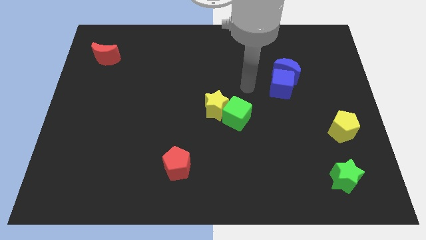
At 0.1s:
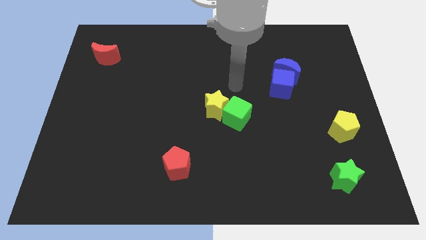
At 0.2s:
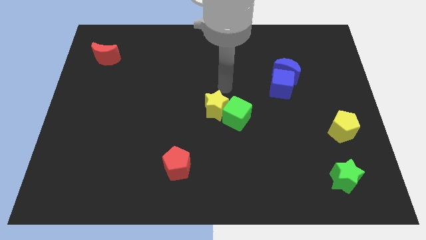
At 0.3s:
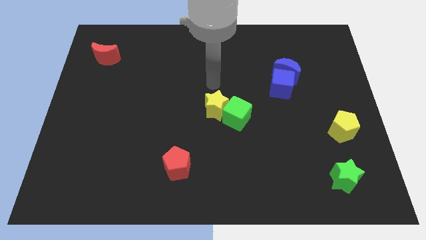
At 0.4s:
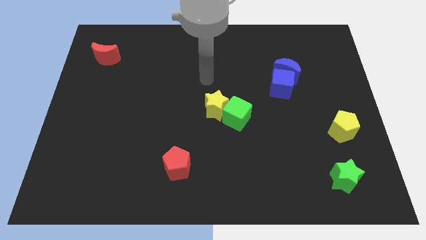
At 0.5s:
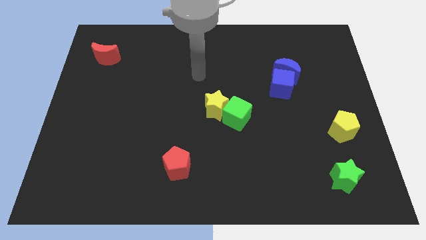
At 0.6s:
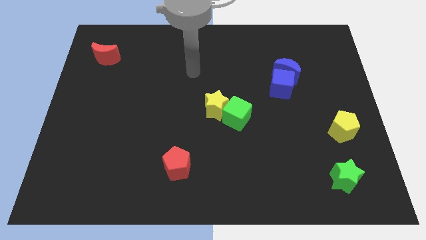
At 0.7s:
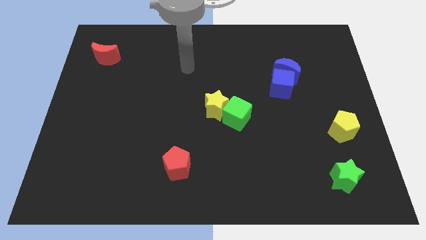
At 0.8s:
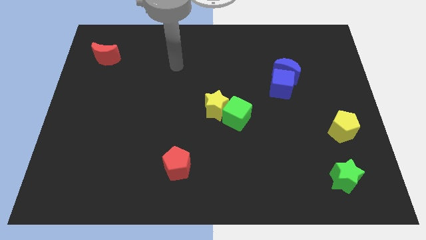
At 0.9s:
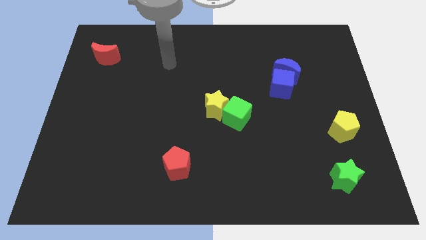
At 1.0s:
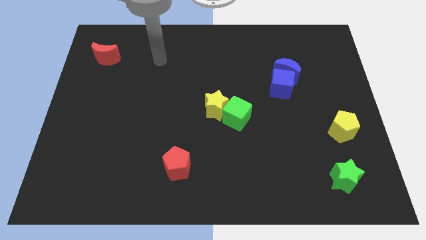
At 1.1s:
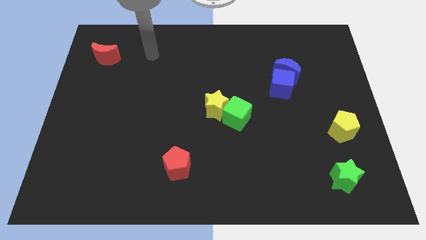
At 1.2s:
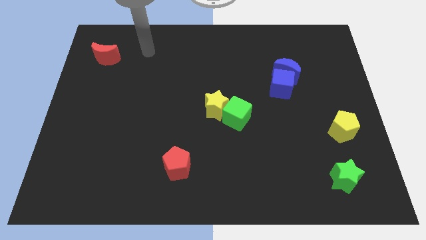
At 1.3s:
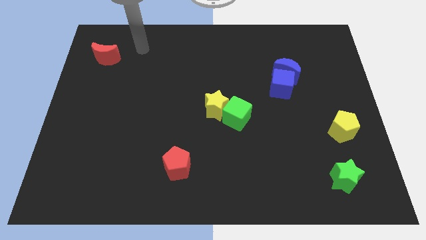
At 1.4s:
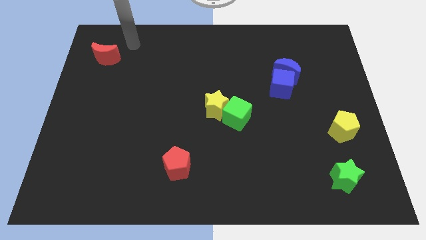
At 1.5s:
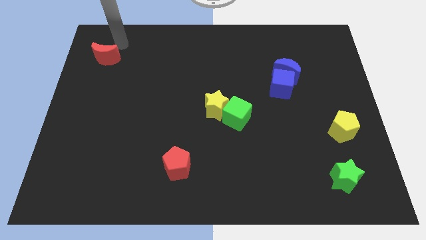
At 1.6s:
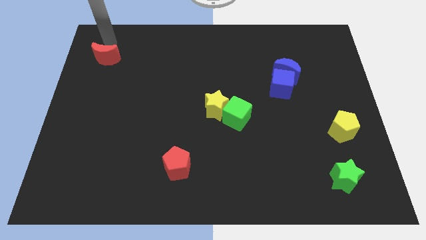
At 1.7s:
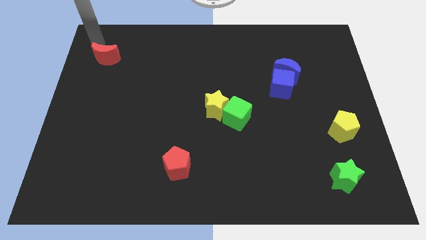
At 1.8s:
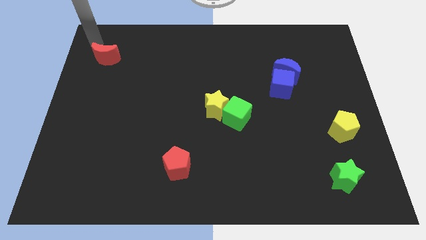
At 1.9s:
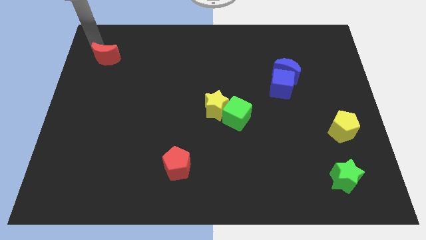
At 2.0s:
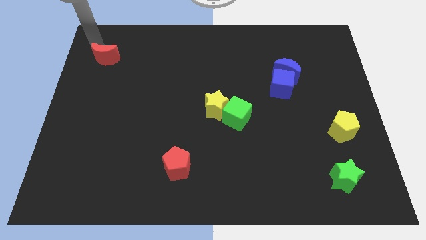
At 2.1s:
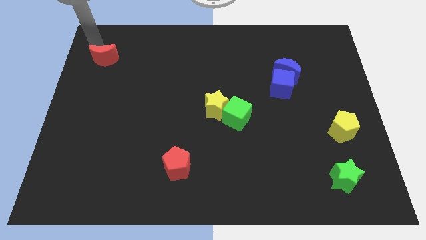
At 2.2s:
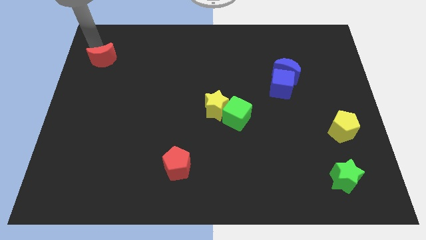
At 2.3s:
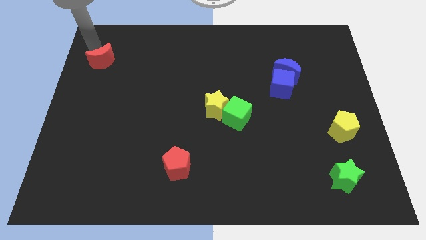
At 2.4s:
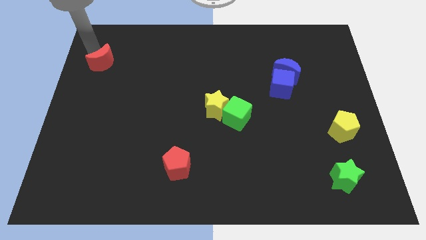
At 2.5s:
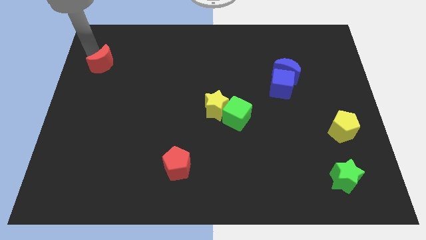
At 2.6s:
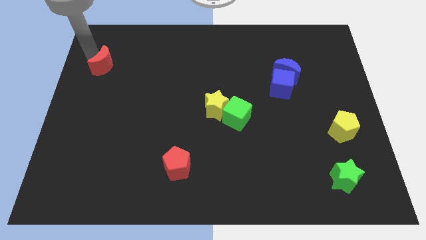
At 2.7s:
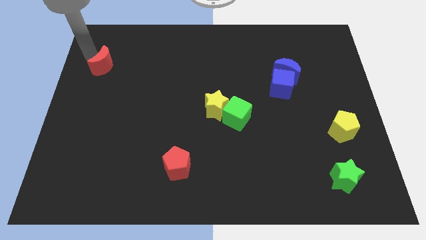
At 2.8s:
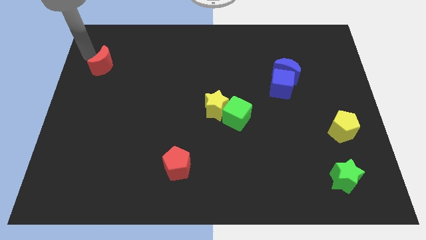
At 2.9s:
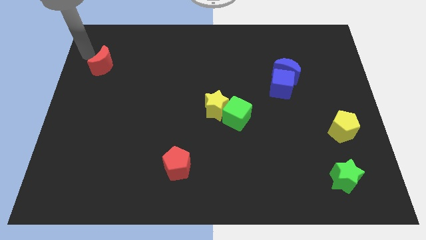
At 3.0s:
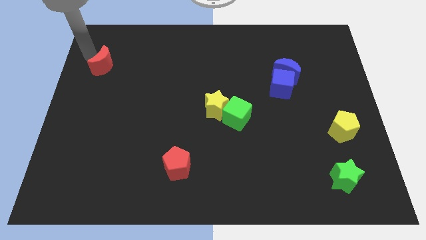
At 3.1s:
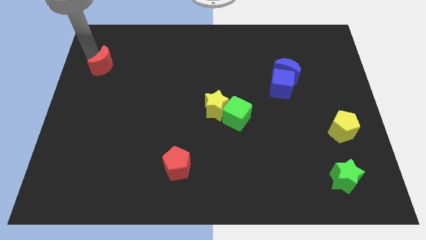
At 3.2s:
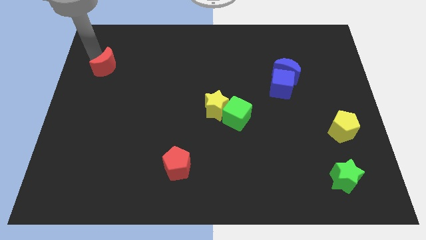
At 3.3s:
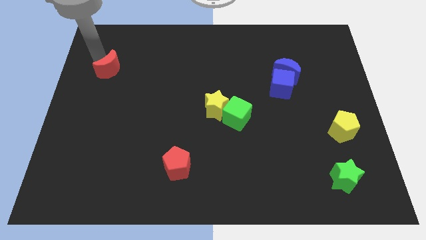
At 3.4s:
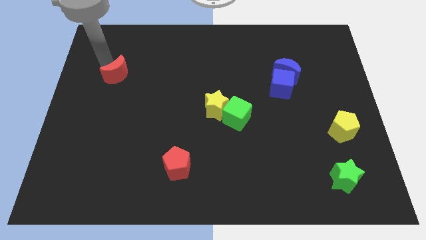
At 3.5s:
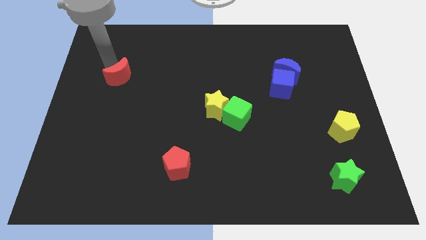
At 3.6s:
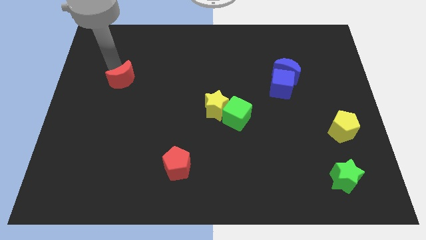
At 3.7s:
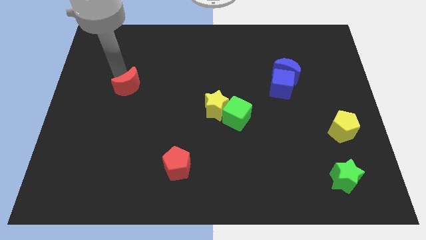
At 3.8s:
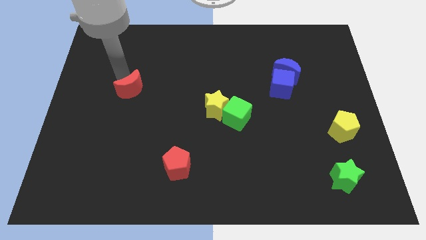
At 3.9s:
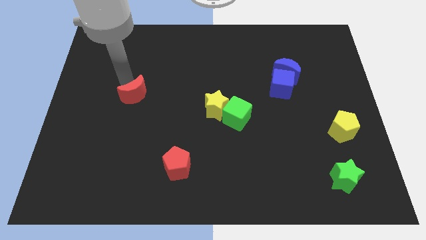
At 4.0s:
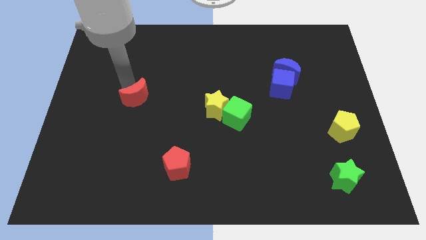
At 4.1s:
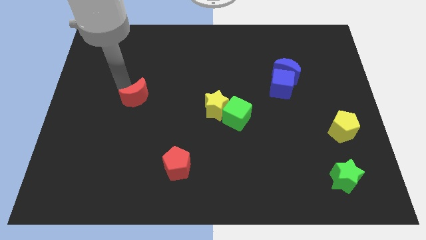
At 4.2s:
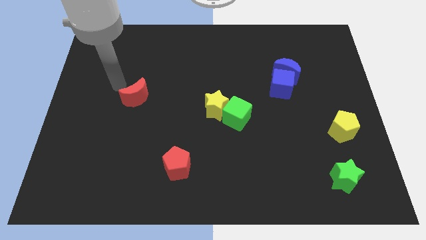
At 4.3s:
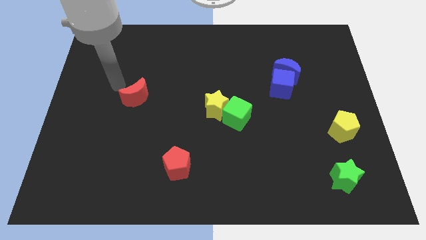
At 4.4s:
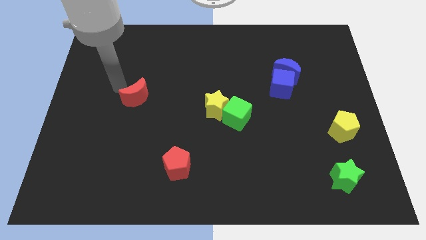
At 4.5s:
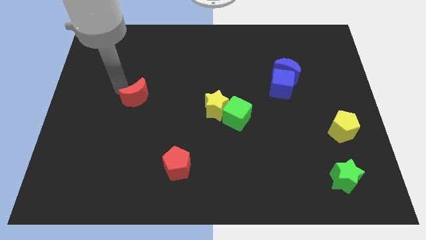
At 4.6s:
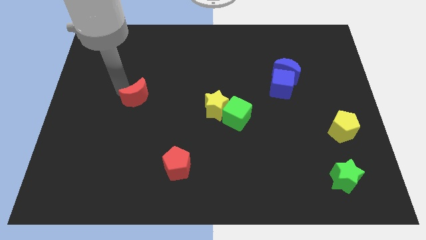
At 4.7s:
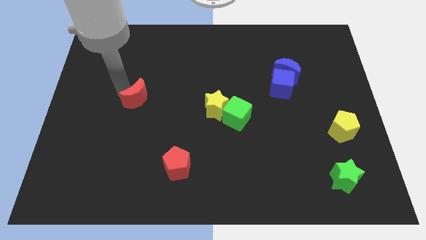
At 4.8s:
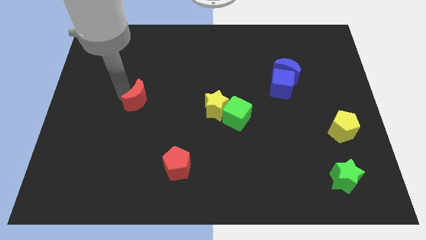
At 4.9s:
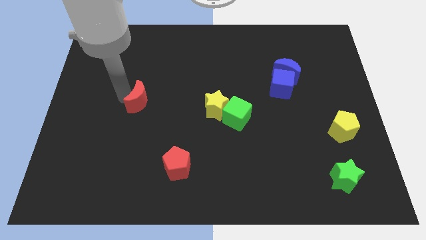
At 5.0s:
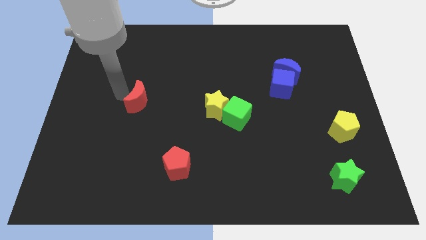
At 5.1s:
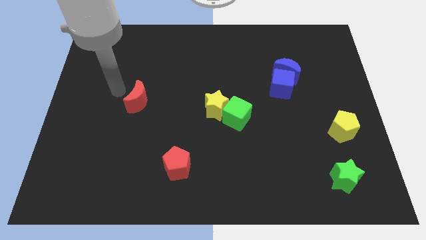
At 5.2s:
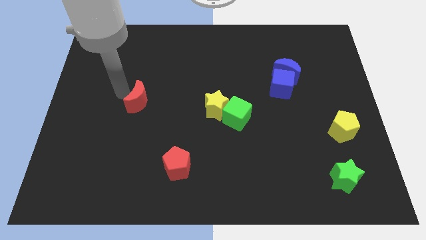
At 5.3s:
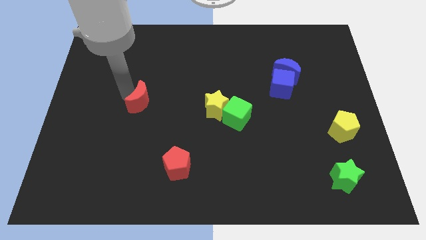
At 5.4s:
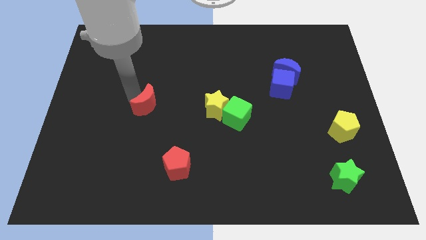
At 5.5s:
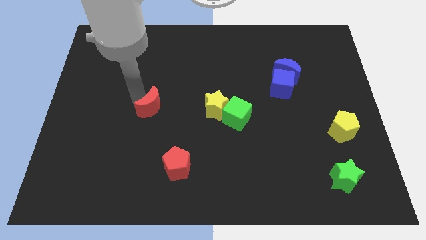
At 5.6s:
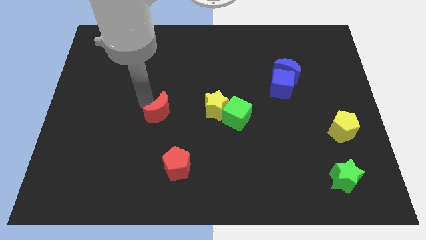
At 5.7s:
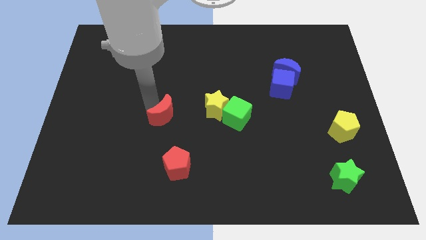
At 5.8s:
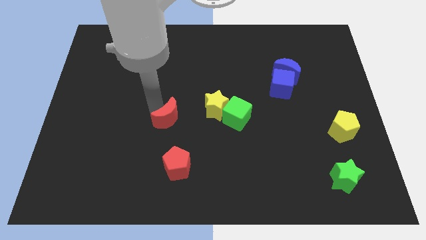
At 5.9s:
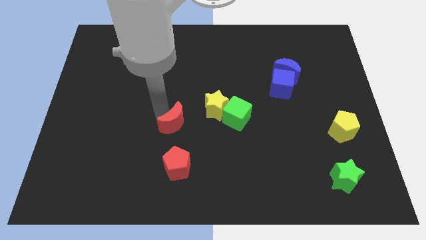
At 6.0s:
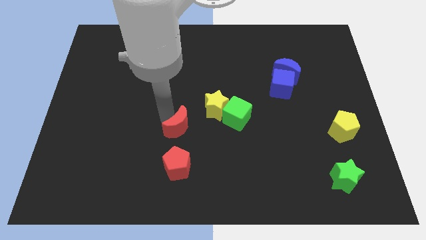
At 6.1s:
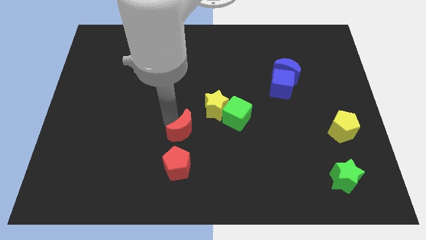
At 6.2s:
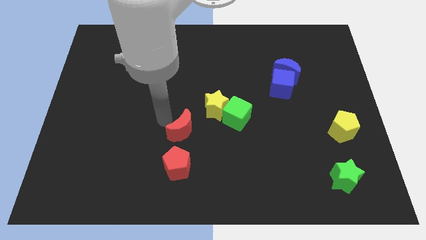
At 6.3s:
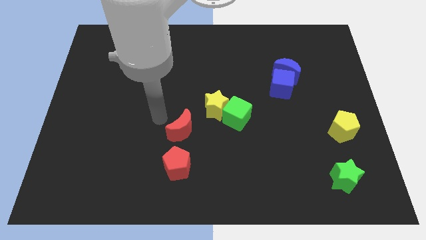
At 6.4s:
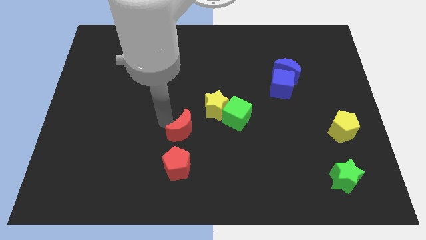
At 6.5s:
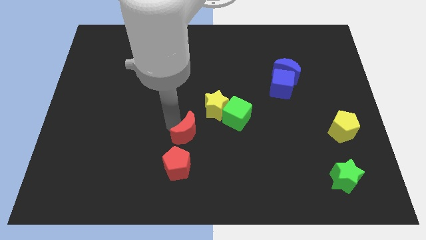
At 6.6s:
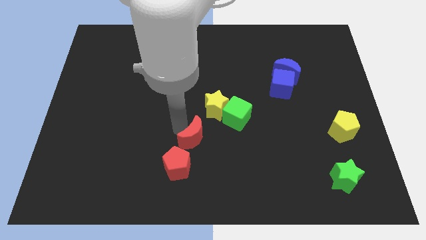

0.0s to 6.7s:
push the red moon to the bottom of the yellow star

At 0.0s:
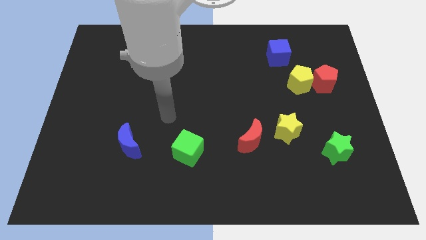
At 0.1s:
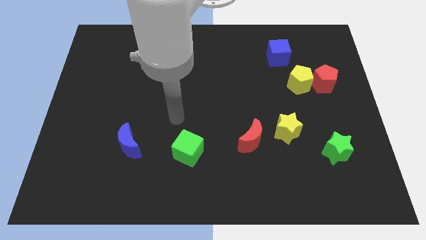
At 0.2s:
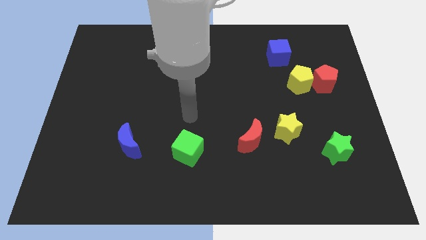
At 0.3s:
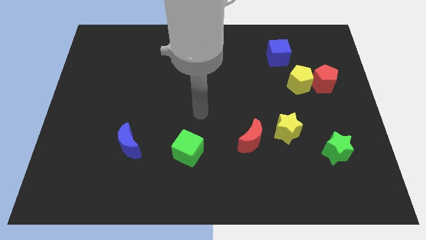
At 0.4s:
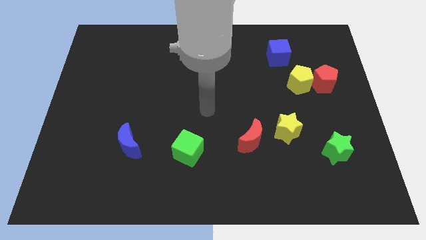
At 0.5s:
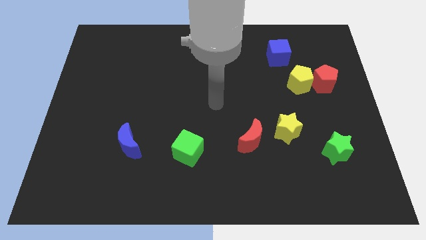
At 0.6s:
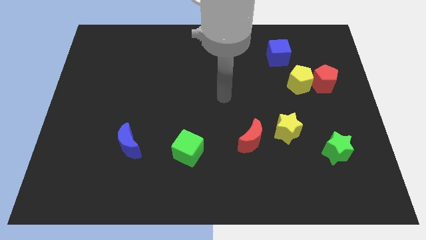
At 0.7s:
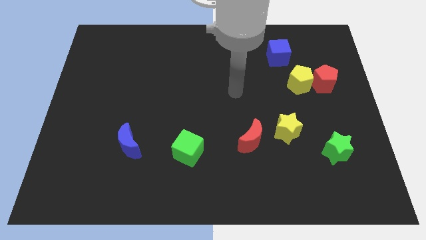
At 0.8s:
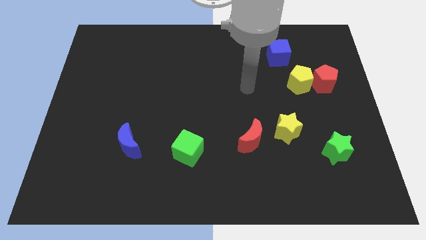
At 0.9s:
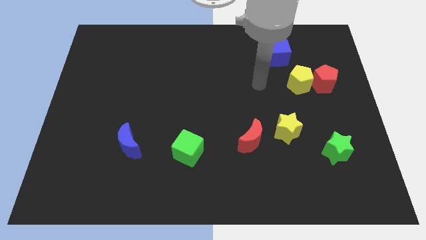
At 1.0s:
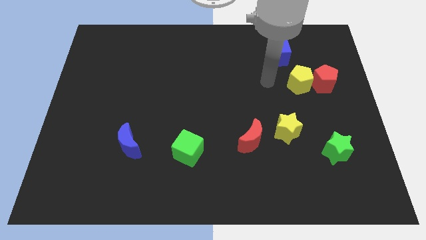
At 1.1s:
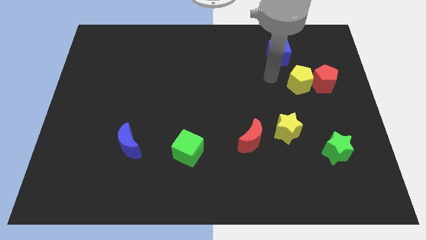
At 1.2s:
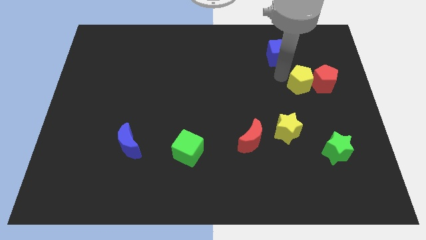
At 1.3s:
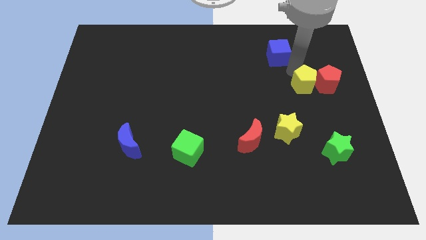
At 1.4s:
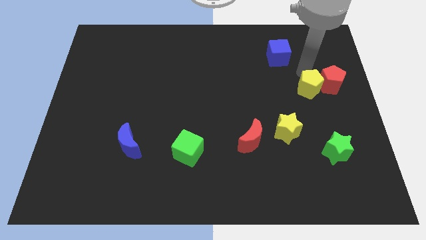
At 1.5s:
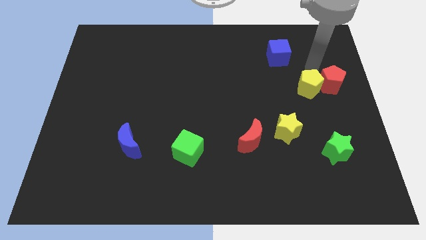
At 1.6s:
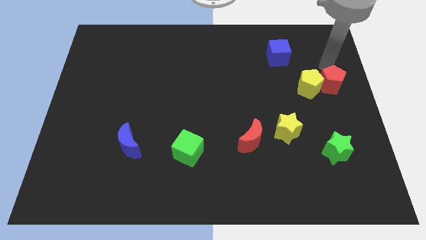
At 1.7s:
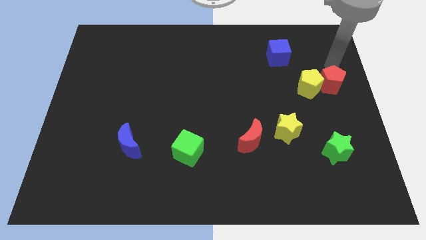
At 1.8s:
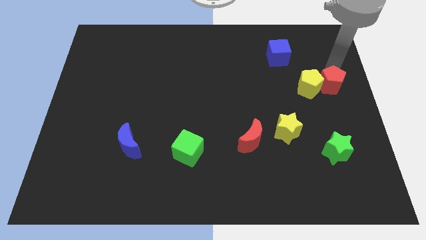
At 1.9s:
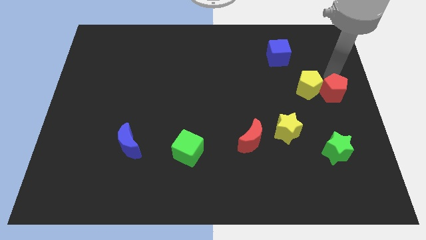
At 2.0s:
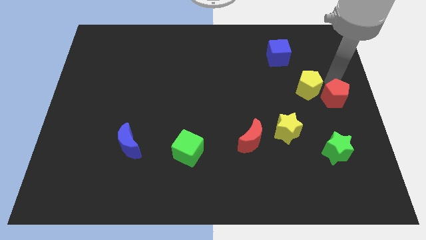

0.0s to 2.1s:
push the red pentagon to the top side of the green star
